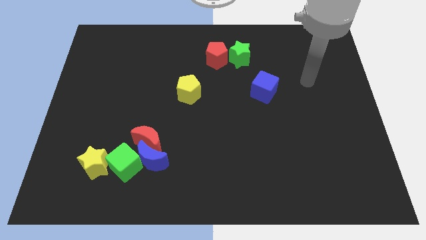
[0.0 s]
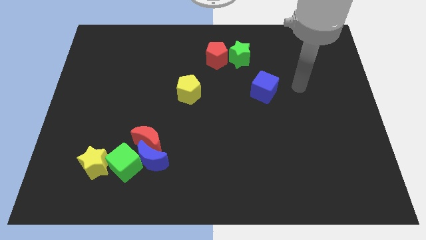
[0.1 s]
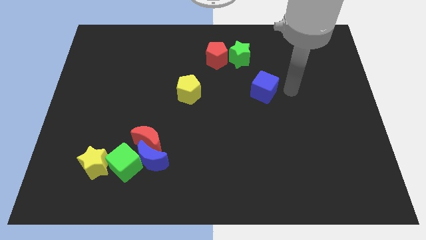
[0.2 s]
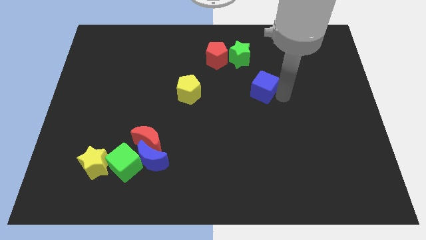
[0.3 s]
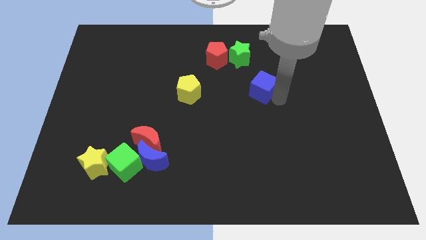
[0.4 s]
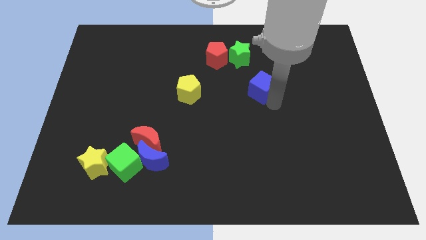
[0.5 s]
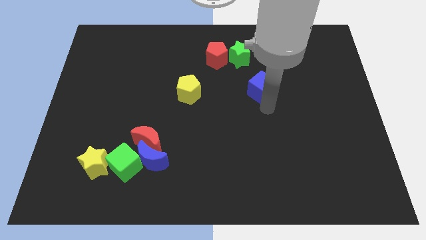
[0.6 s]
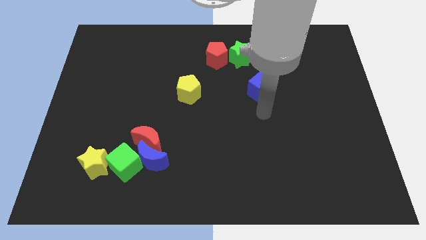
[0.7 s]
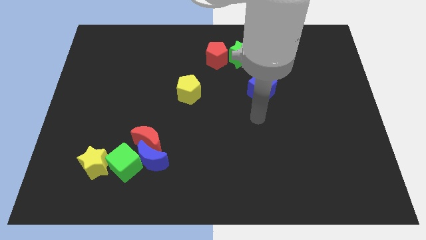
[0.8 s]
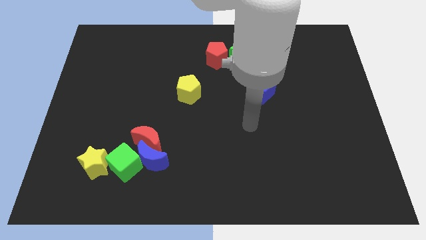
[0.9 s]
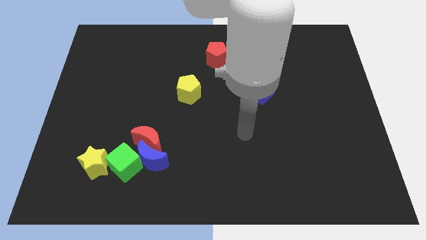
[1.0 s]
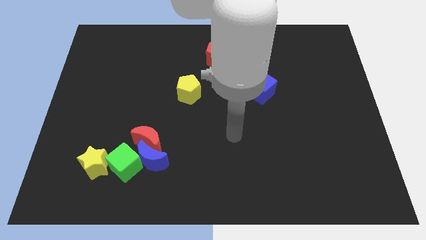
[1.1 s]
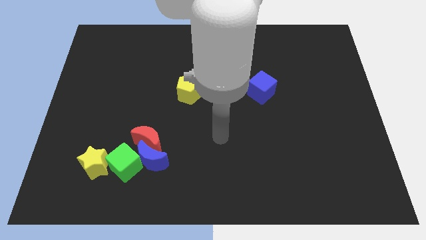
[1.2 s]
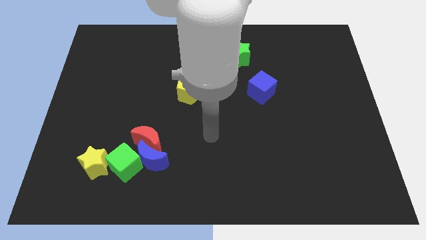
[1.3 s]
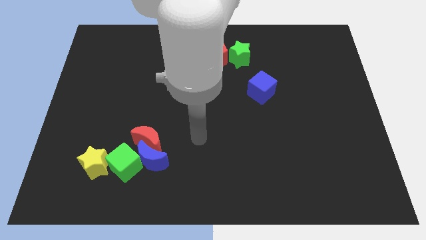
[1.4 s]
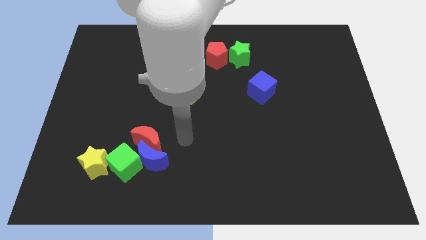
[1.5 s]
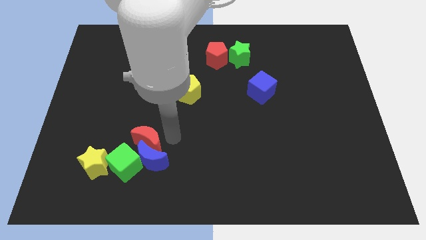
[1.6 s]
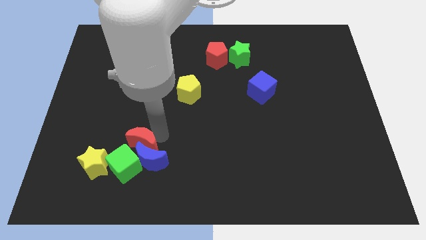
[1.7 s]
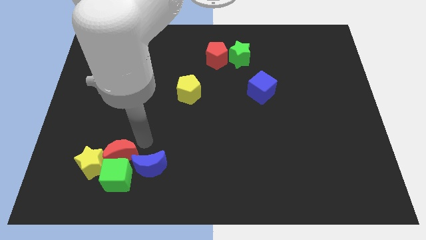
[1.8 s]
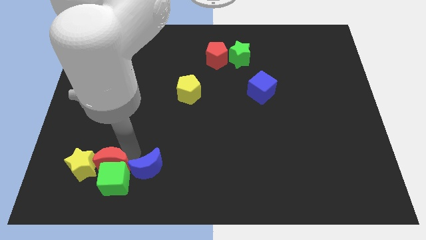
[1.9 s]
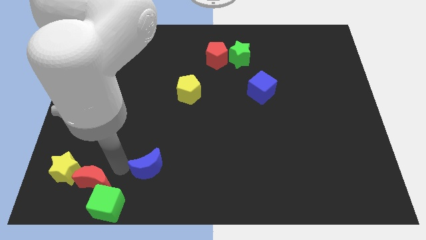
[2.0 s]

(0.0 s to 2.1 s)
separate the blue moon from the red moon and green cube

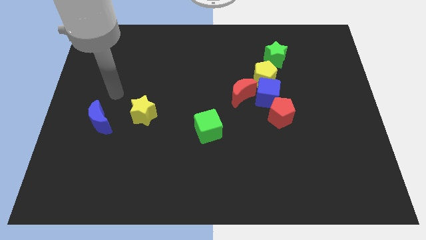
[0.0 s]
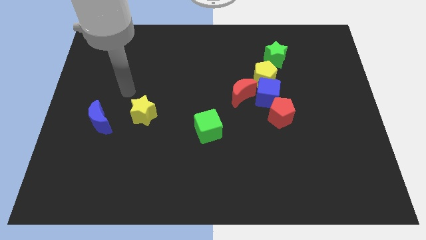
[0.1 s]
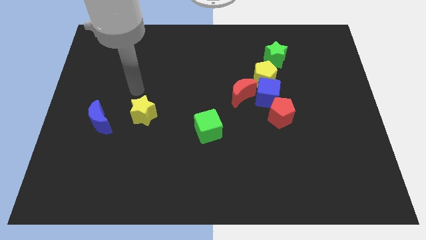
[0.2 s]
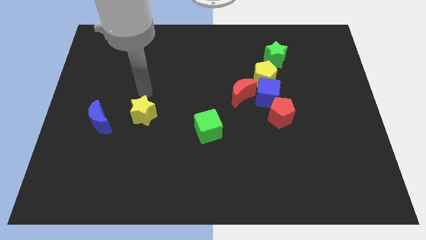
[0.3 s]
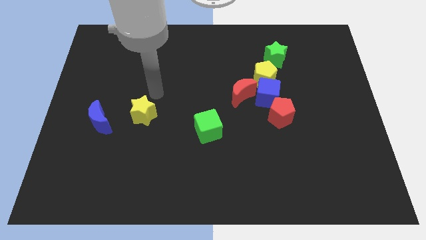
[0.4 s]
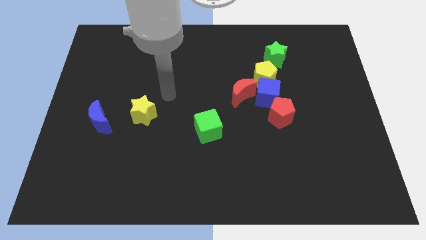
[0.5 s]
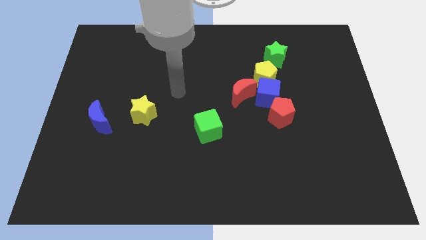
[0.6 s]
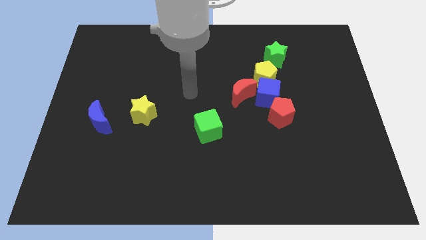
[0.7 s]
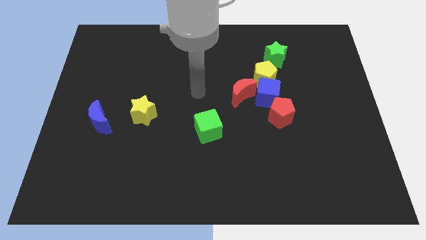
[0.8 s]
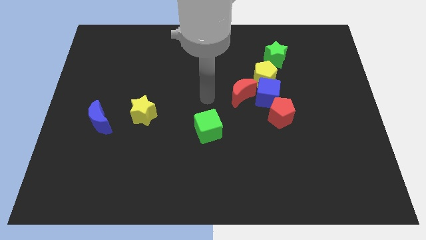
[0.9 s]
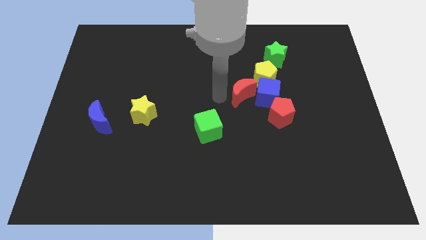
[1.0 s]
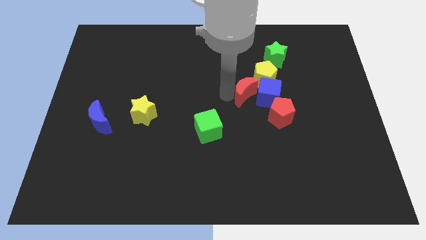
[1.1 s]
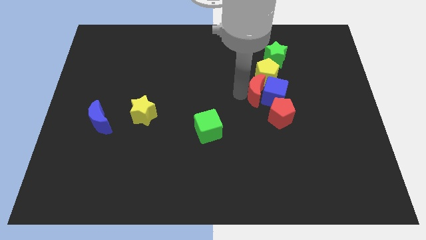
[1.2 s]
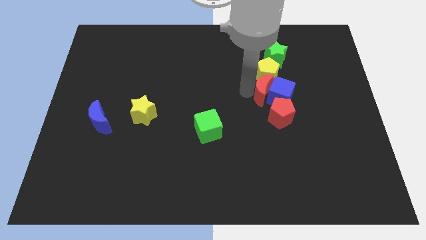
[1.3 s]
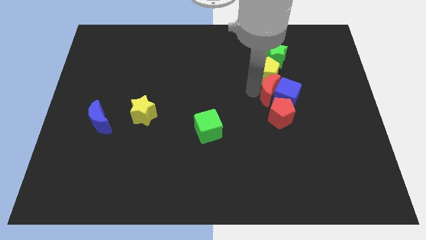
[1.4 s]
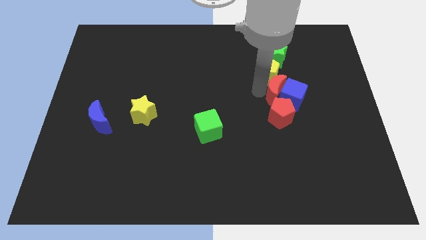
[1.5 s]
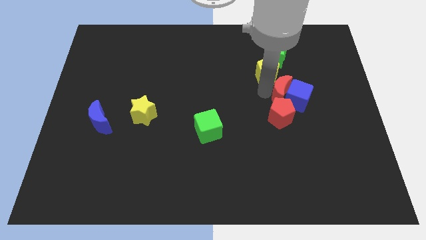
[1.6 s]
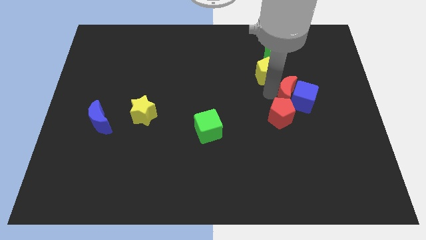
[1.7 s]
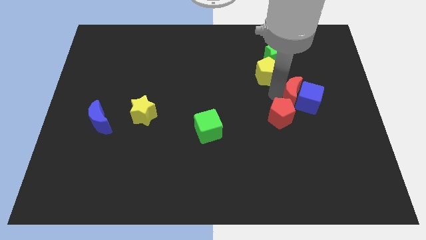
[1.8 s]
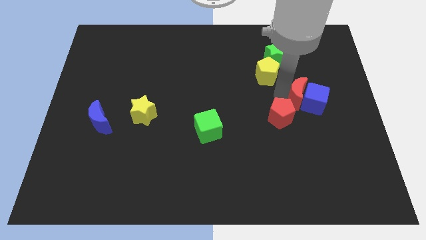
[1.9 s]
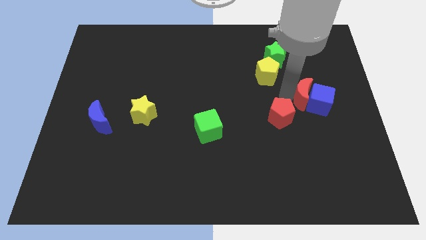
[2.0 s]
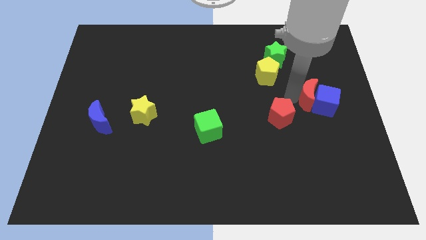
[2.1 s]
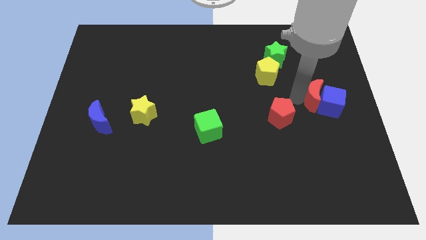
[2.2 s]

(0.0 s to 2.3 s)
move the blue cube away from the clump

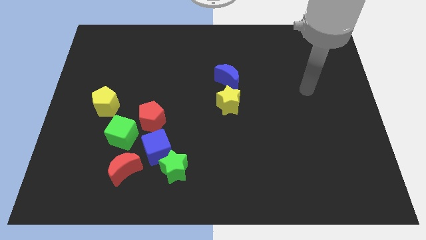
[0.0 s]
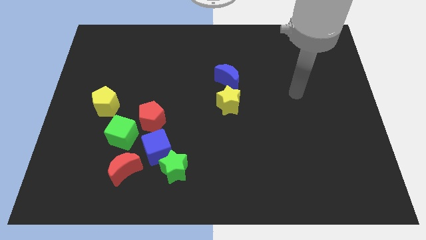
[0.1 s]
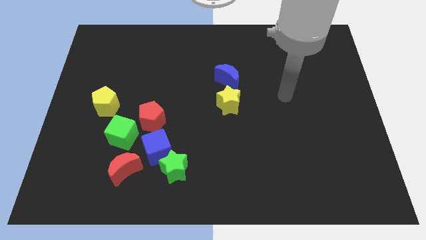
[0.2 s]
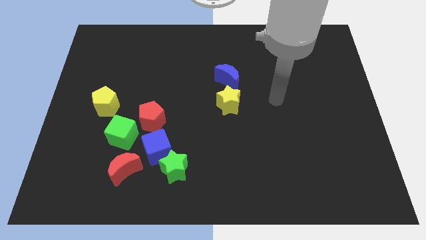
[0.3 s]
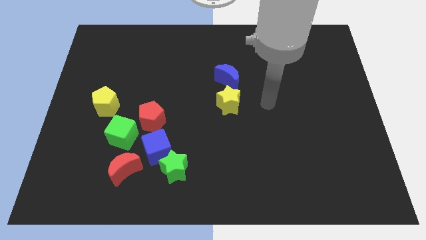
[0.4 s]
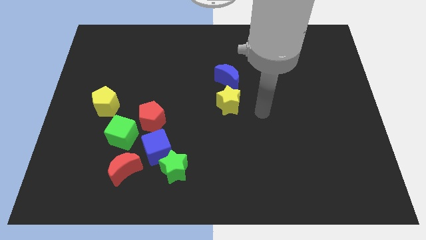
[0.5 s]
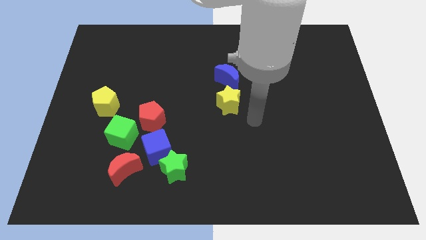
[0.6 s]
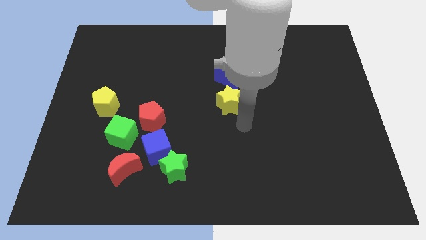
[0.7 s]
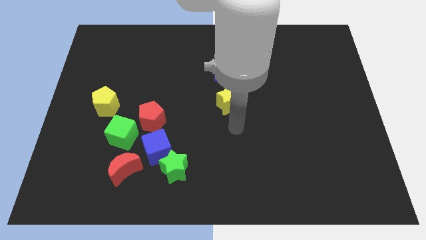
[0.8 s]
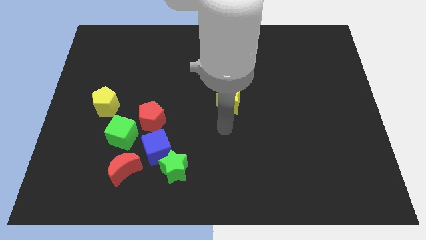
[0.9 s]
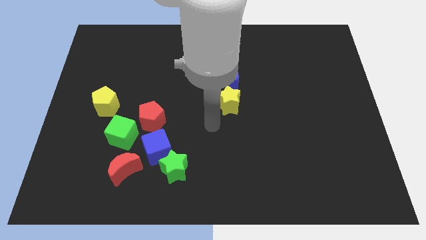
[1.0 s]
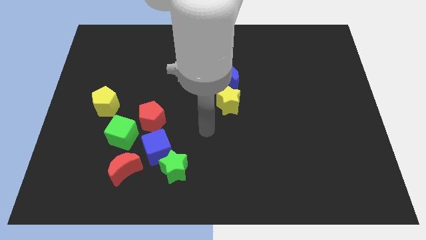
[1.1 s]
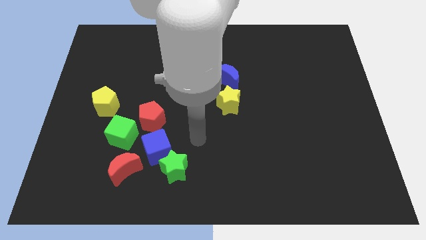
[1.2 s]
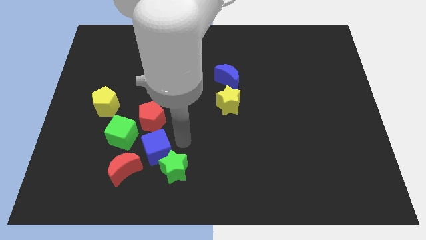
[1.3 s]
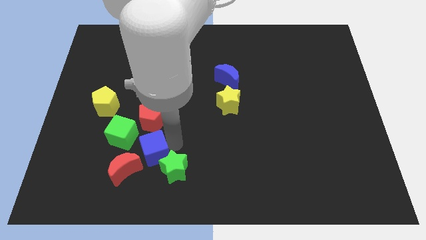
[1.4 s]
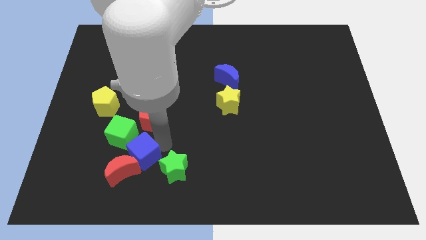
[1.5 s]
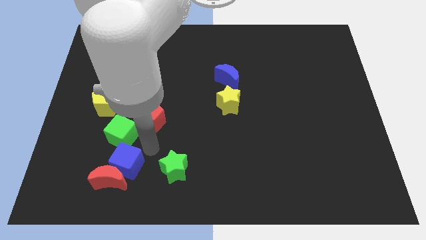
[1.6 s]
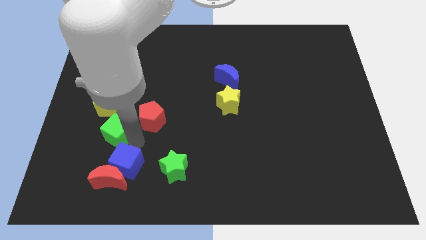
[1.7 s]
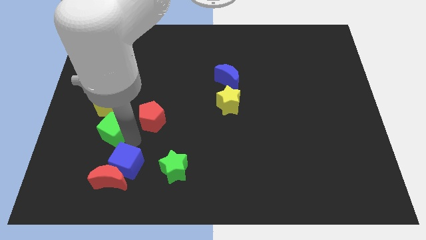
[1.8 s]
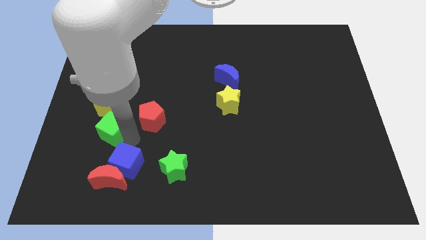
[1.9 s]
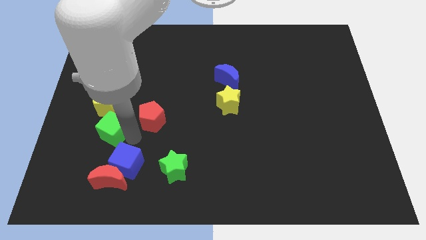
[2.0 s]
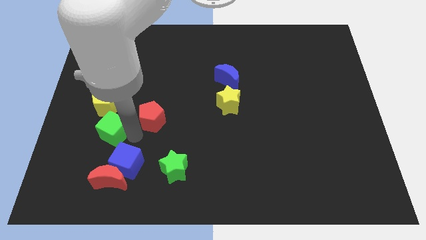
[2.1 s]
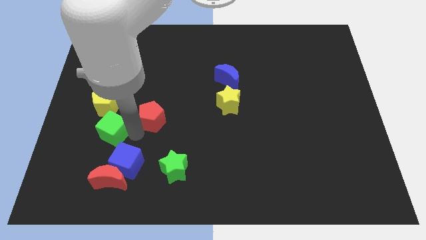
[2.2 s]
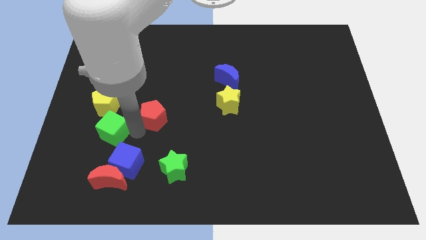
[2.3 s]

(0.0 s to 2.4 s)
move the red pentagon away from the green cube and blue cube

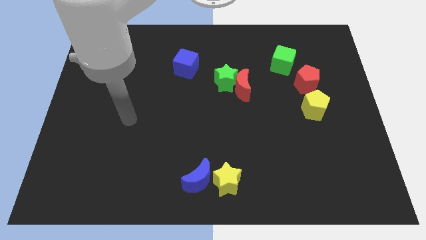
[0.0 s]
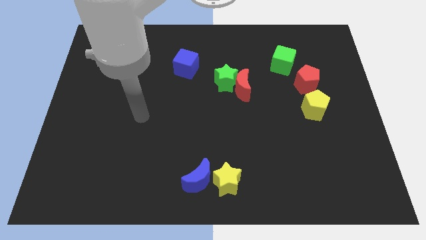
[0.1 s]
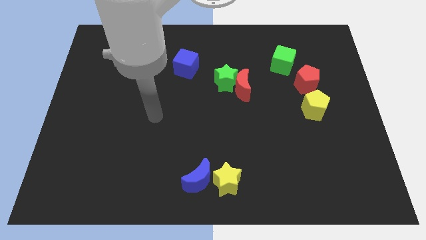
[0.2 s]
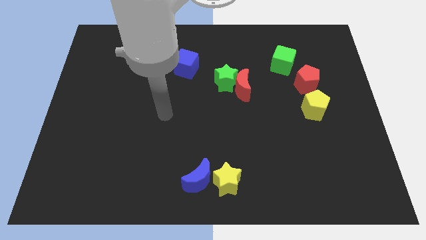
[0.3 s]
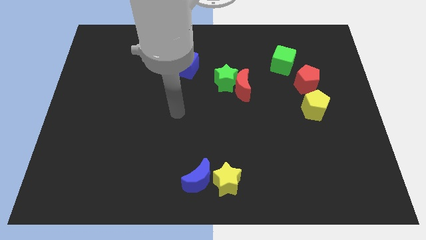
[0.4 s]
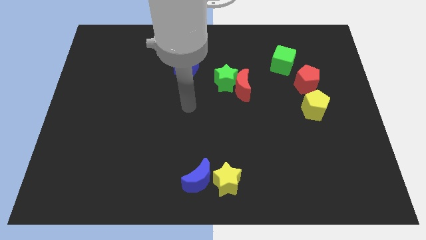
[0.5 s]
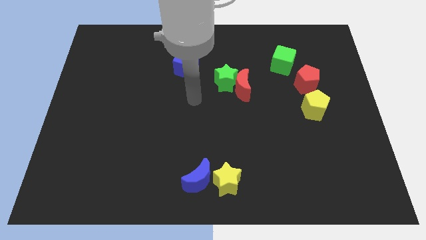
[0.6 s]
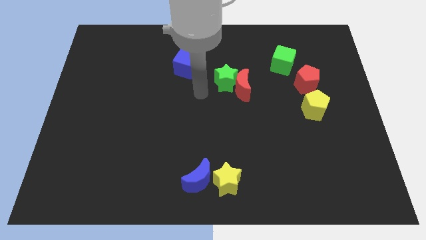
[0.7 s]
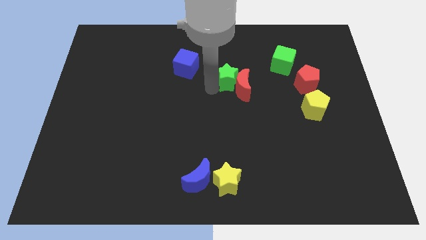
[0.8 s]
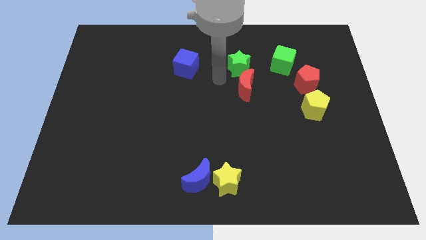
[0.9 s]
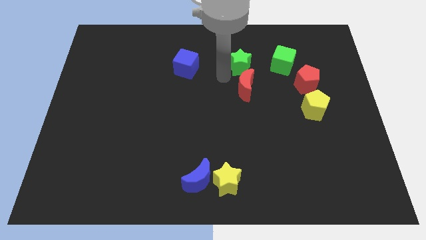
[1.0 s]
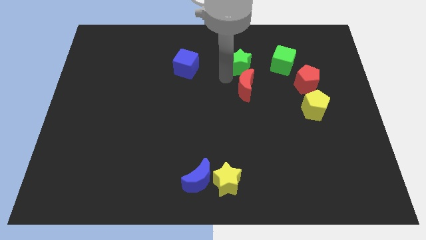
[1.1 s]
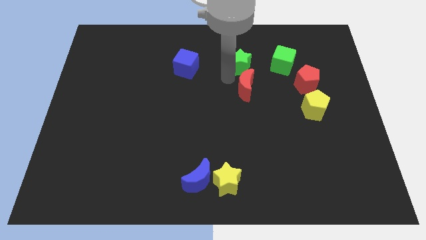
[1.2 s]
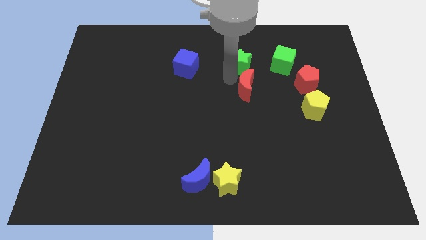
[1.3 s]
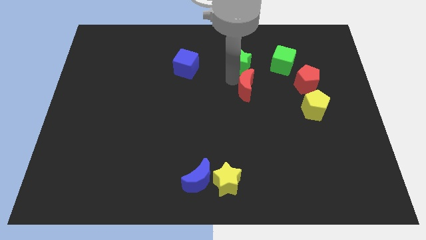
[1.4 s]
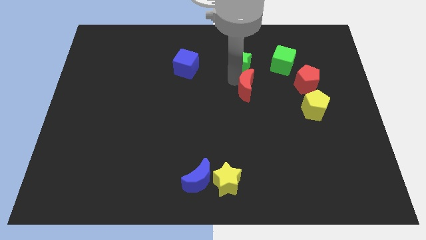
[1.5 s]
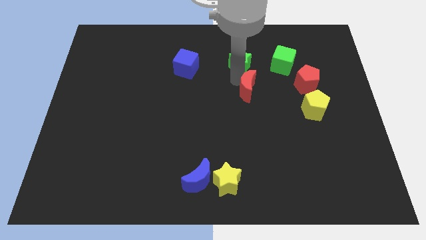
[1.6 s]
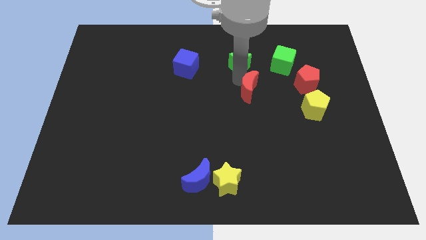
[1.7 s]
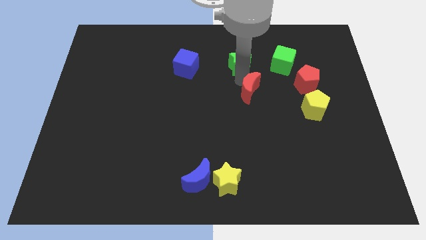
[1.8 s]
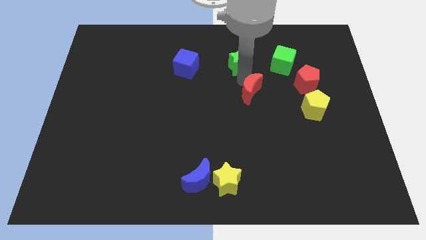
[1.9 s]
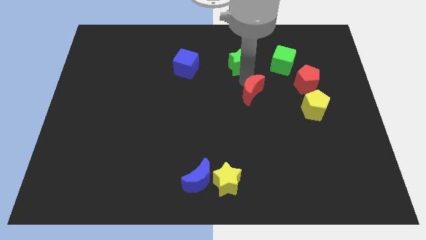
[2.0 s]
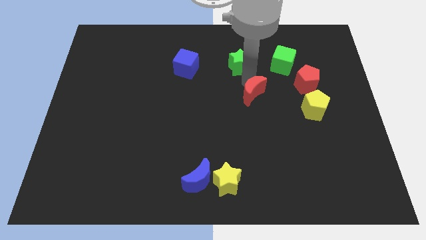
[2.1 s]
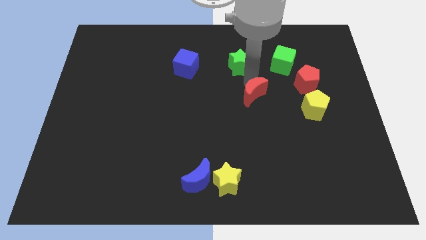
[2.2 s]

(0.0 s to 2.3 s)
separate the red moon from the green star

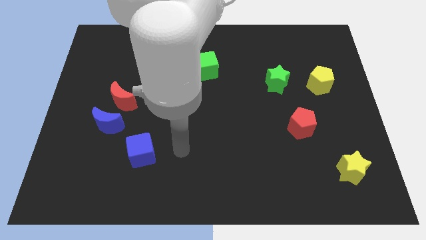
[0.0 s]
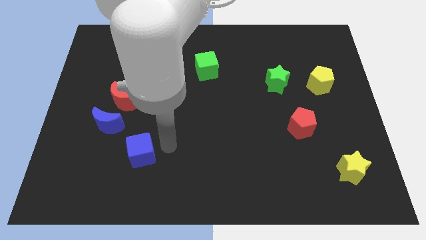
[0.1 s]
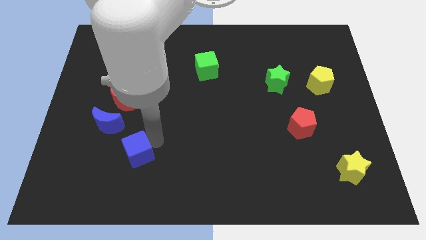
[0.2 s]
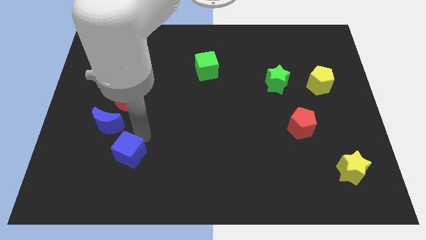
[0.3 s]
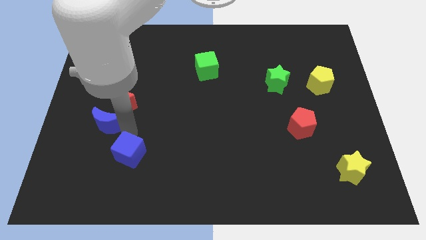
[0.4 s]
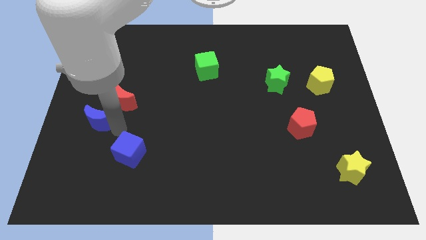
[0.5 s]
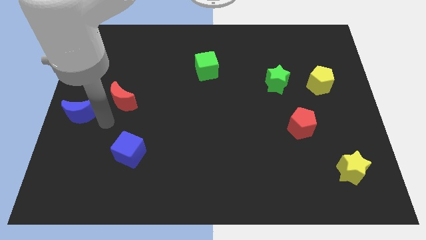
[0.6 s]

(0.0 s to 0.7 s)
move the red moon away from the blue moon
